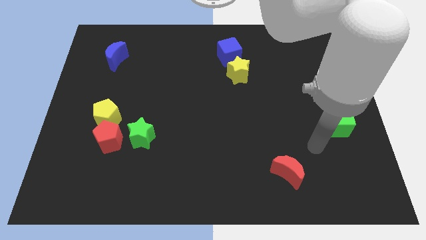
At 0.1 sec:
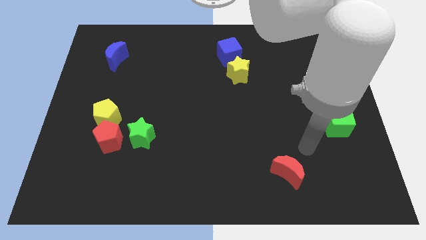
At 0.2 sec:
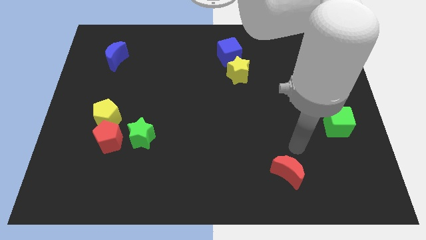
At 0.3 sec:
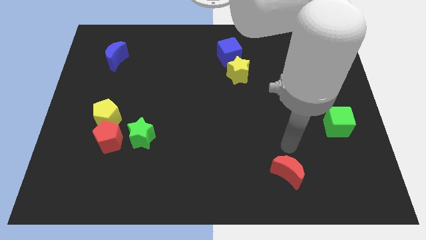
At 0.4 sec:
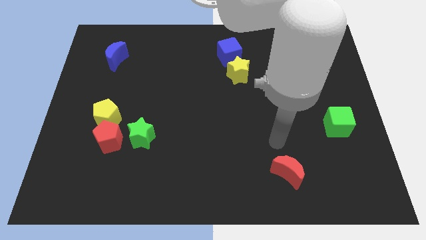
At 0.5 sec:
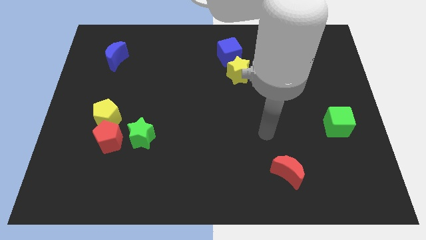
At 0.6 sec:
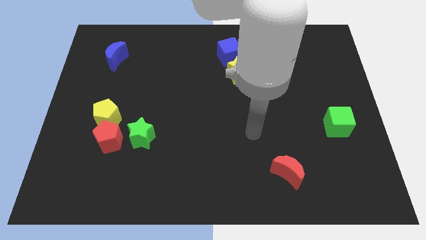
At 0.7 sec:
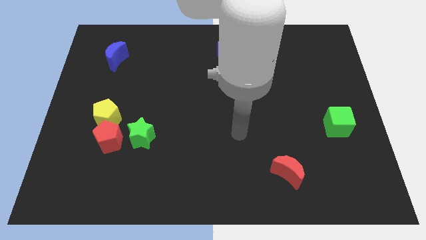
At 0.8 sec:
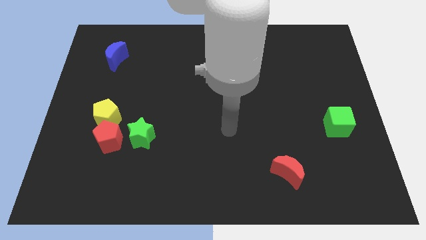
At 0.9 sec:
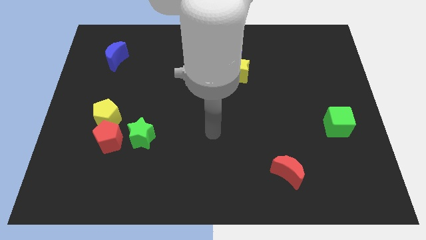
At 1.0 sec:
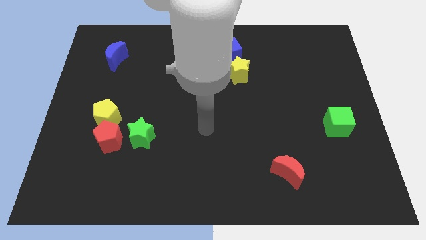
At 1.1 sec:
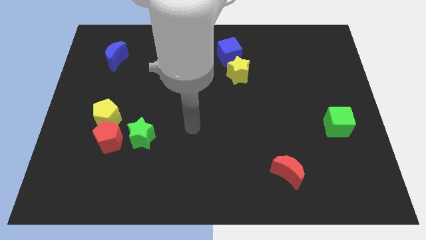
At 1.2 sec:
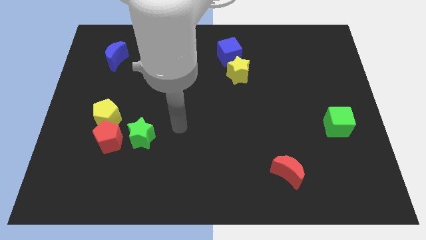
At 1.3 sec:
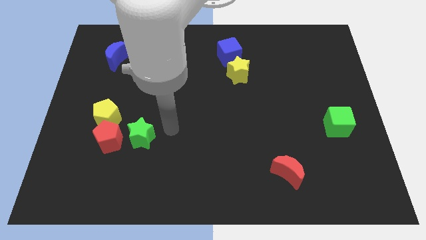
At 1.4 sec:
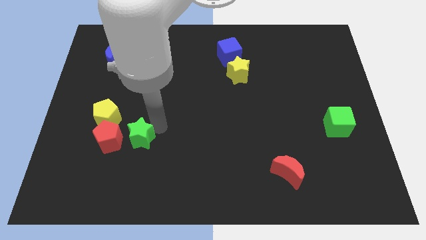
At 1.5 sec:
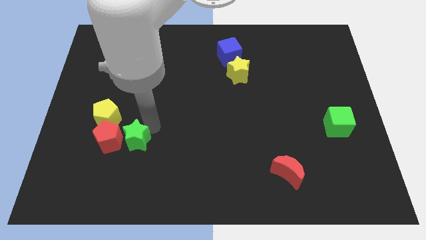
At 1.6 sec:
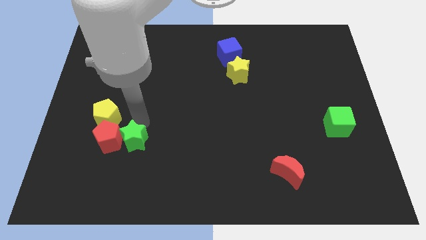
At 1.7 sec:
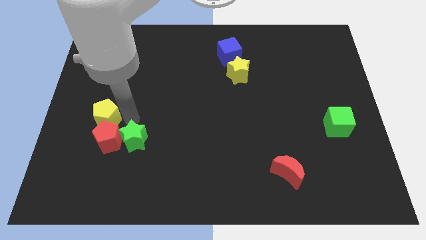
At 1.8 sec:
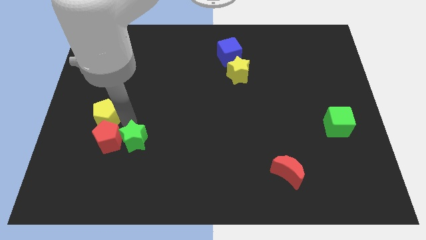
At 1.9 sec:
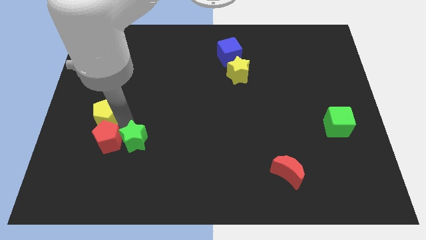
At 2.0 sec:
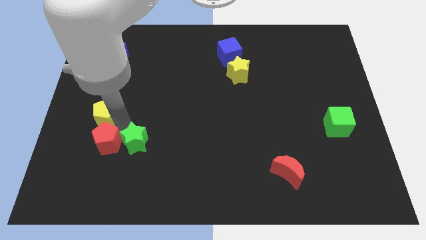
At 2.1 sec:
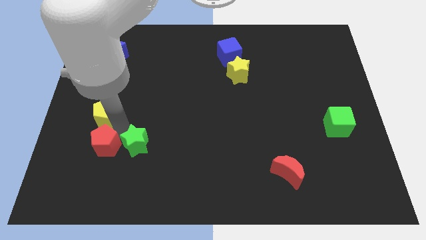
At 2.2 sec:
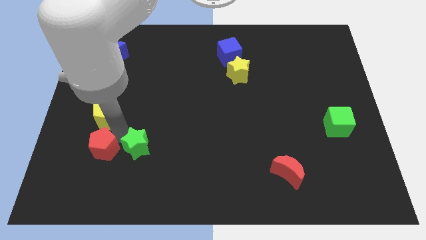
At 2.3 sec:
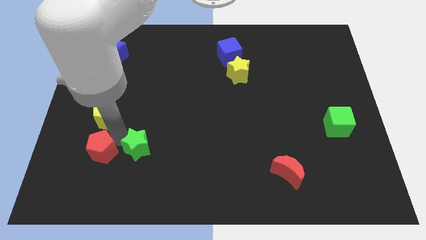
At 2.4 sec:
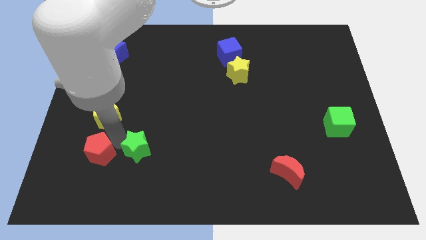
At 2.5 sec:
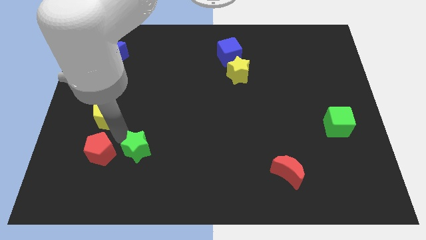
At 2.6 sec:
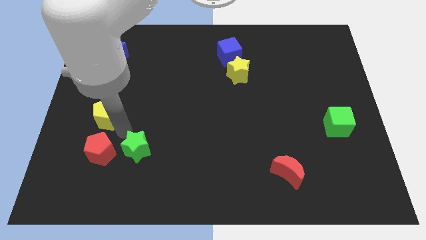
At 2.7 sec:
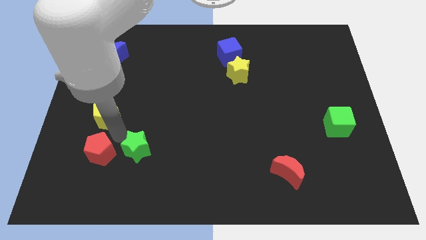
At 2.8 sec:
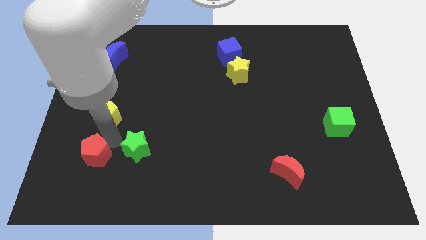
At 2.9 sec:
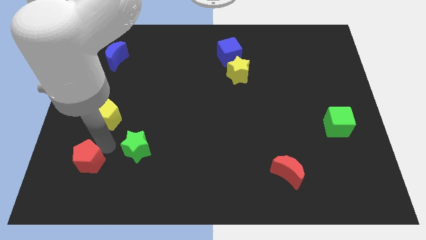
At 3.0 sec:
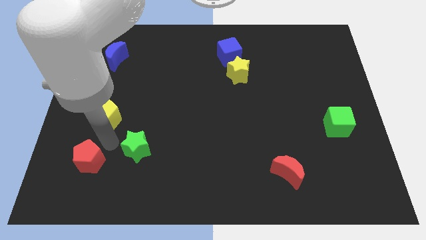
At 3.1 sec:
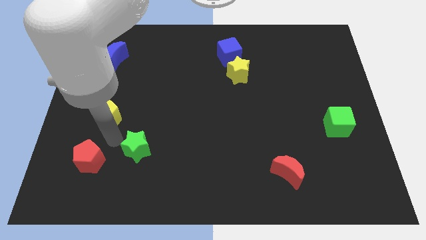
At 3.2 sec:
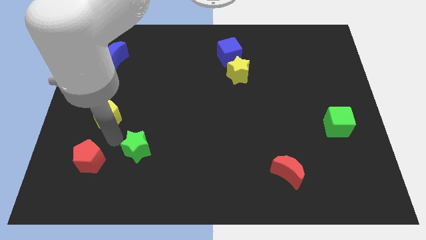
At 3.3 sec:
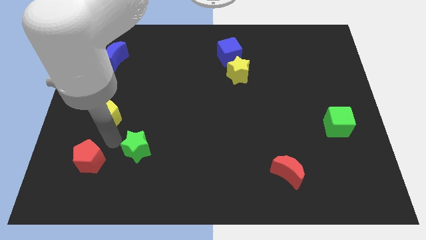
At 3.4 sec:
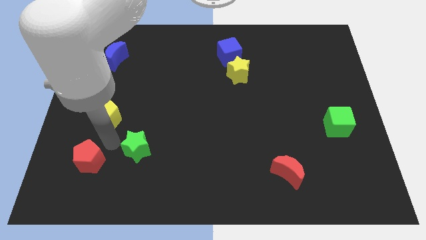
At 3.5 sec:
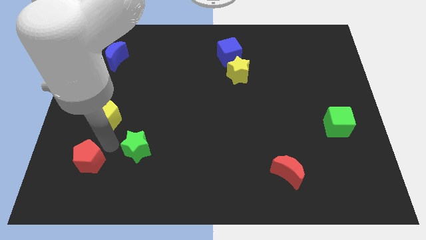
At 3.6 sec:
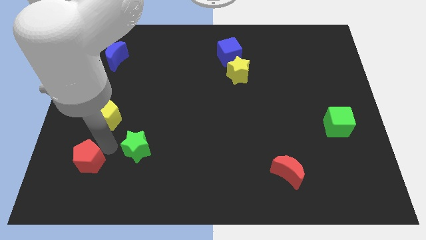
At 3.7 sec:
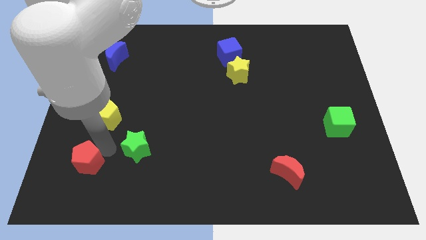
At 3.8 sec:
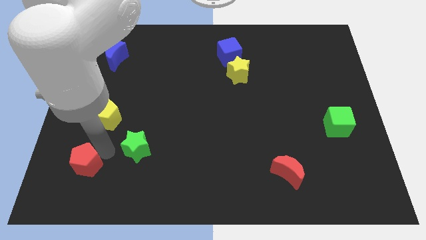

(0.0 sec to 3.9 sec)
pull the red pentagon apart from the yellow pentagon and green star

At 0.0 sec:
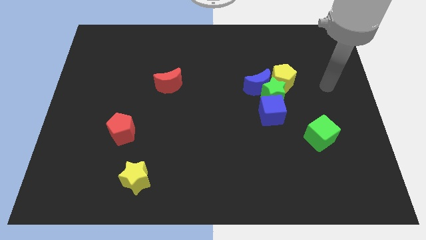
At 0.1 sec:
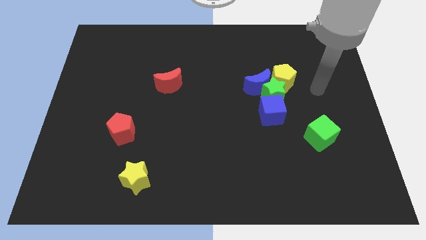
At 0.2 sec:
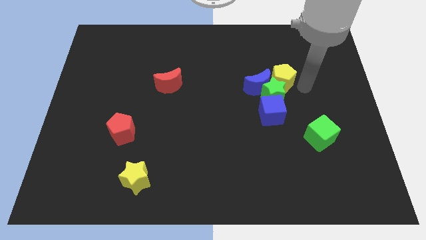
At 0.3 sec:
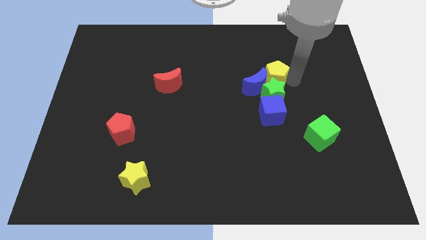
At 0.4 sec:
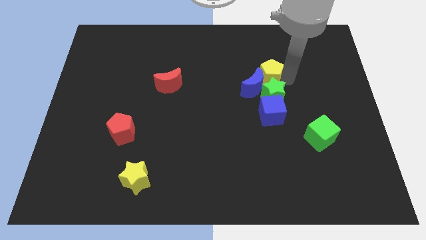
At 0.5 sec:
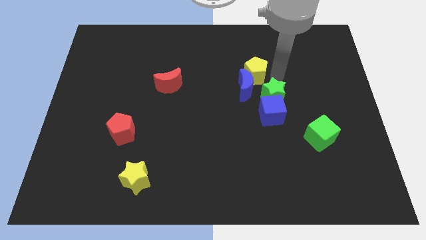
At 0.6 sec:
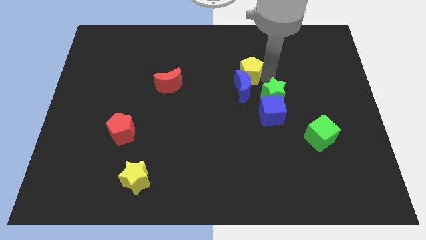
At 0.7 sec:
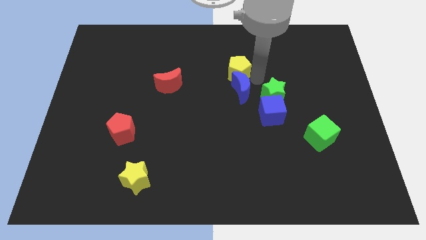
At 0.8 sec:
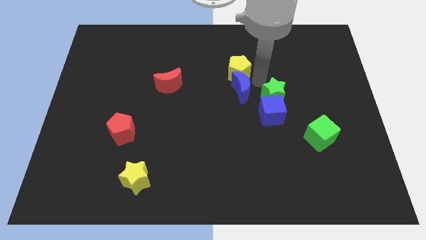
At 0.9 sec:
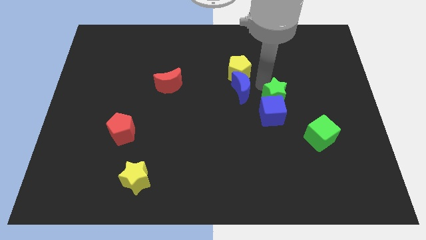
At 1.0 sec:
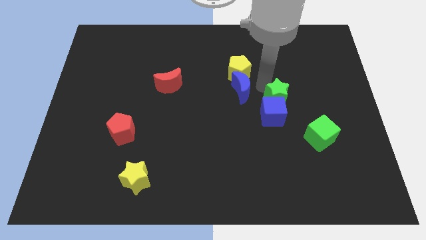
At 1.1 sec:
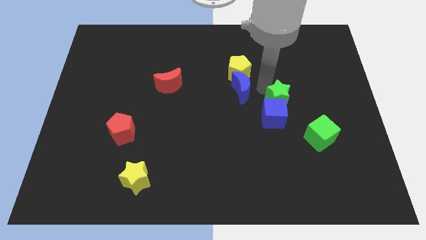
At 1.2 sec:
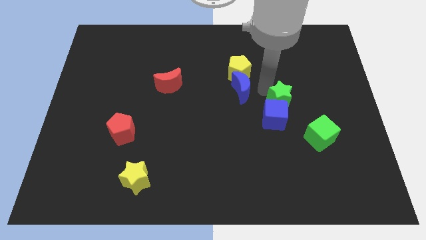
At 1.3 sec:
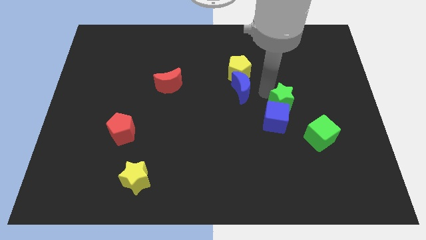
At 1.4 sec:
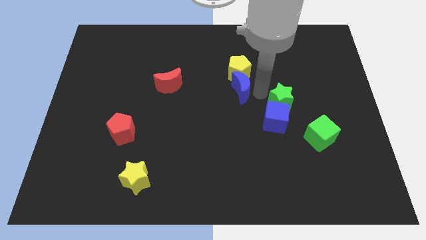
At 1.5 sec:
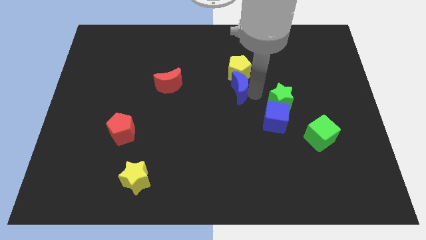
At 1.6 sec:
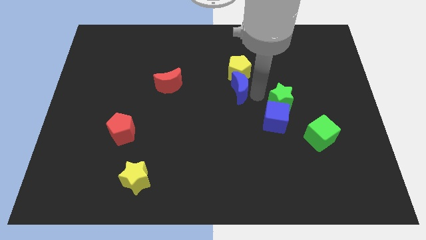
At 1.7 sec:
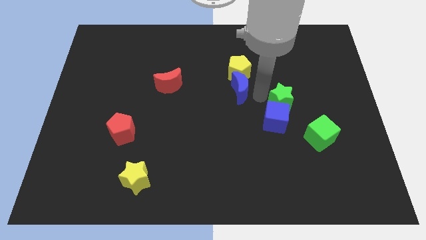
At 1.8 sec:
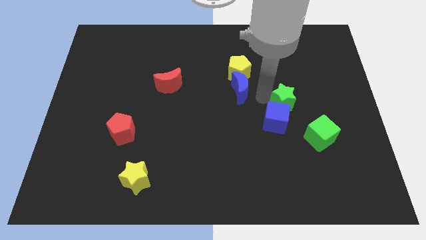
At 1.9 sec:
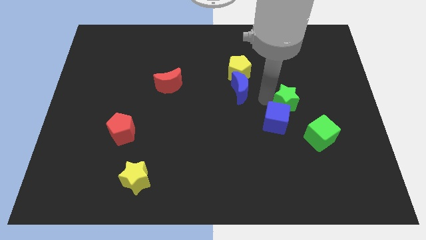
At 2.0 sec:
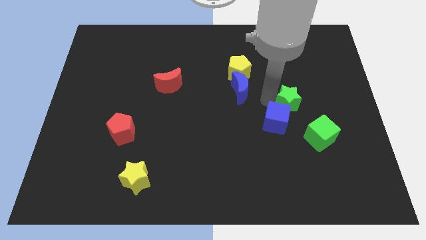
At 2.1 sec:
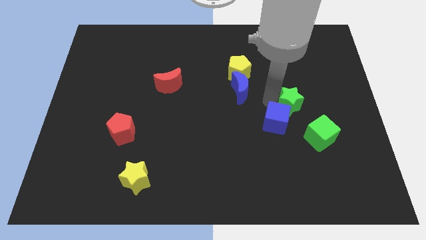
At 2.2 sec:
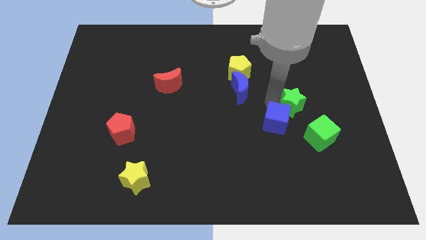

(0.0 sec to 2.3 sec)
move the green star away from the blue moon, yellow pentagon, and blue cube

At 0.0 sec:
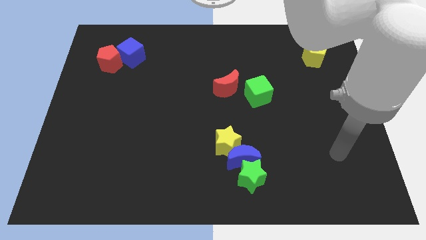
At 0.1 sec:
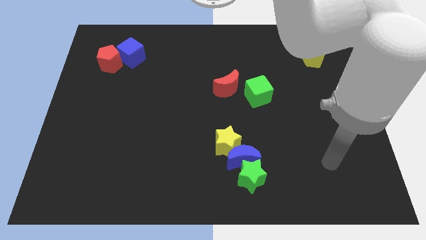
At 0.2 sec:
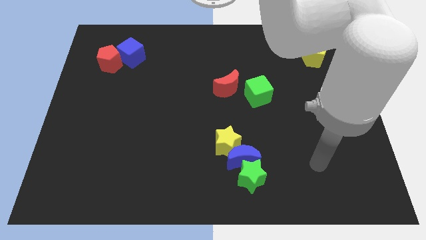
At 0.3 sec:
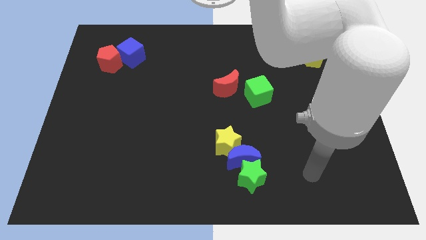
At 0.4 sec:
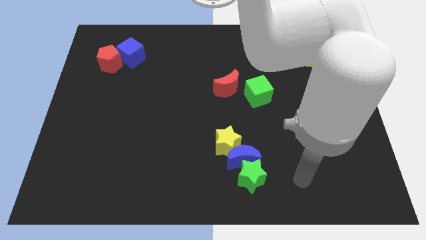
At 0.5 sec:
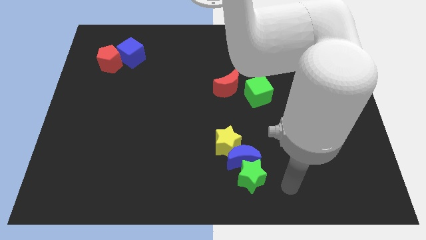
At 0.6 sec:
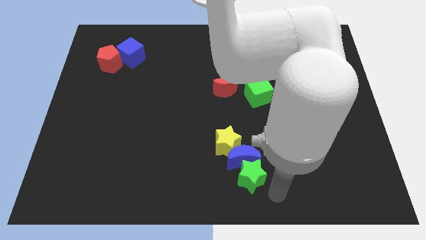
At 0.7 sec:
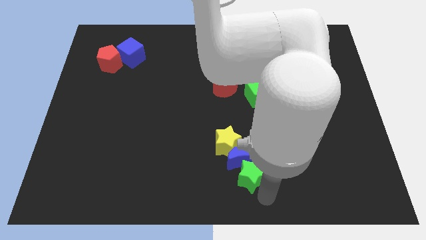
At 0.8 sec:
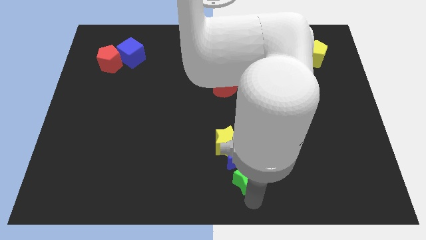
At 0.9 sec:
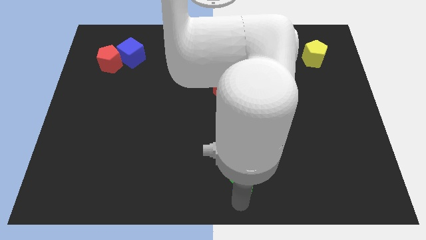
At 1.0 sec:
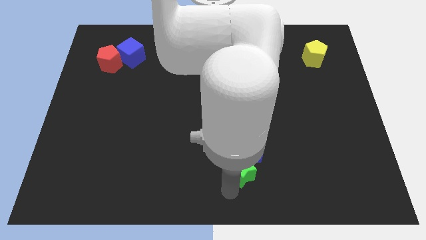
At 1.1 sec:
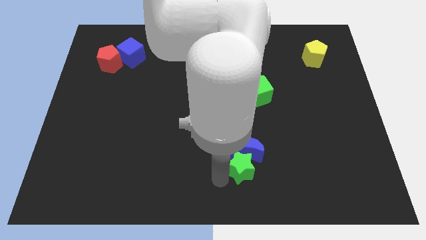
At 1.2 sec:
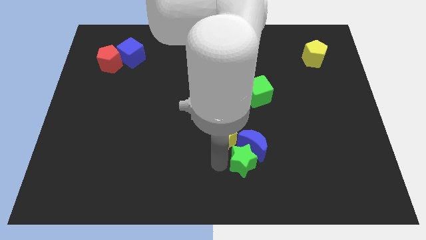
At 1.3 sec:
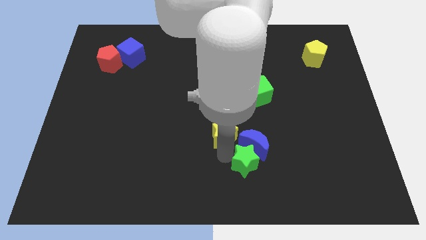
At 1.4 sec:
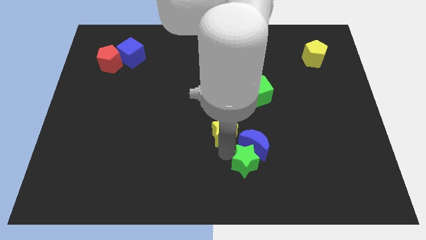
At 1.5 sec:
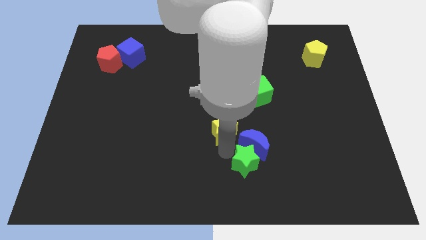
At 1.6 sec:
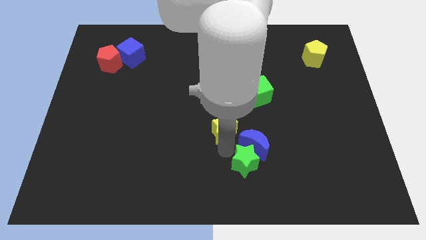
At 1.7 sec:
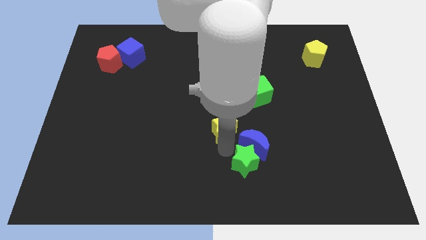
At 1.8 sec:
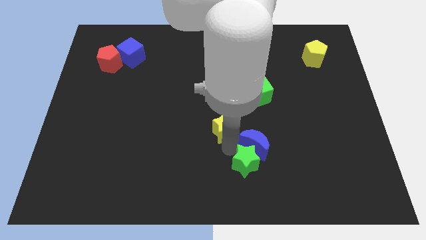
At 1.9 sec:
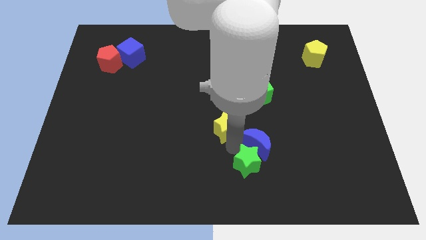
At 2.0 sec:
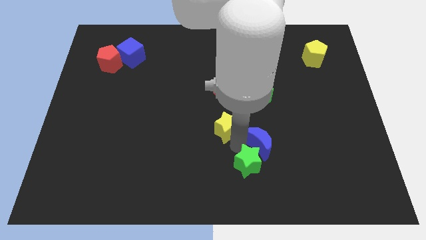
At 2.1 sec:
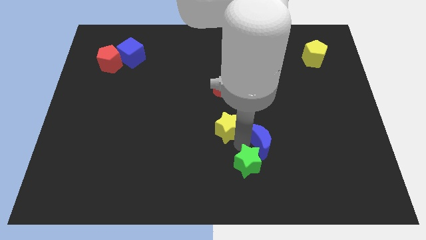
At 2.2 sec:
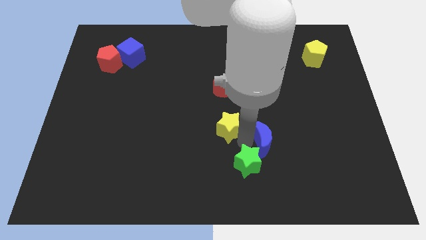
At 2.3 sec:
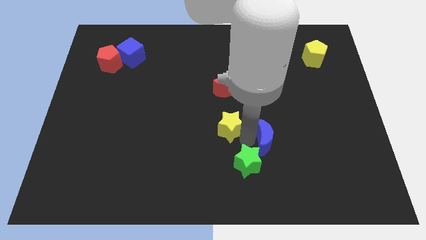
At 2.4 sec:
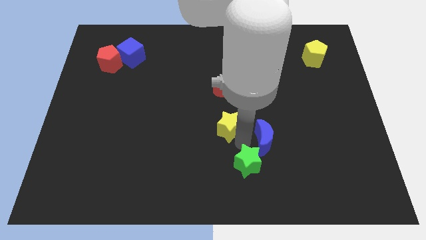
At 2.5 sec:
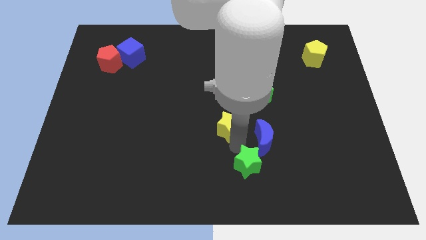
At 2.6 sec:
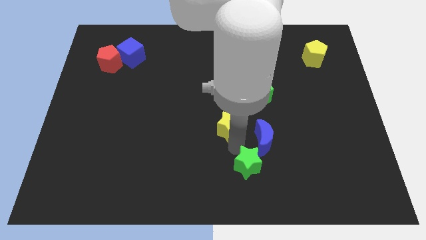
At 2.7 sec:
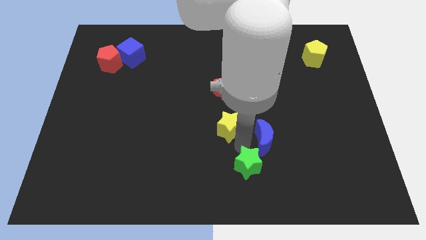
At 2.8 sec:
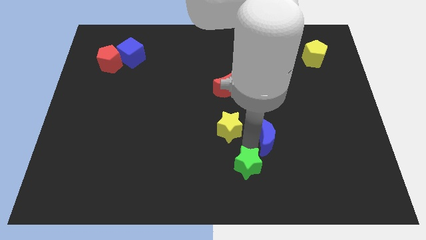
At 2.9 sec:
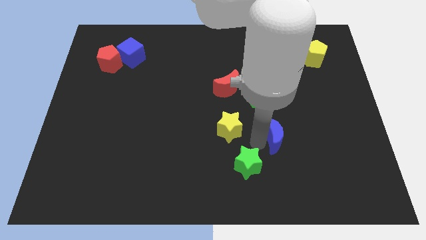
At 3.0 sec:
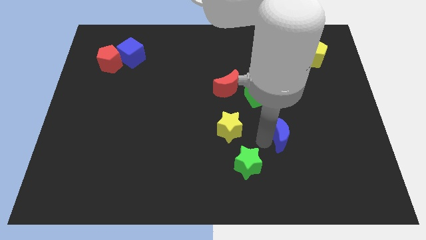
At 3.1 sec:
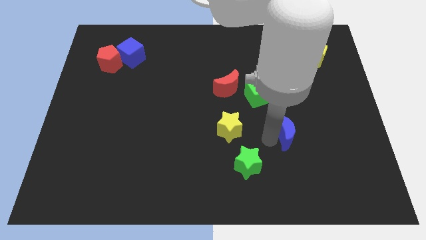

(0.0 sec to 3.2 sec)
pull the blue moon apart from the green star and yellow star
